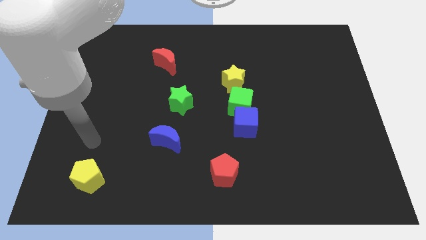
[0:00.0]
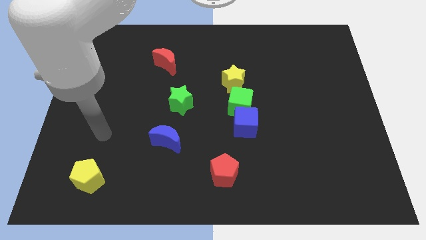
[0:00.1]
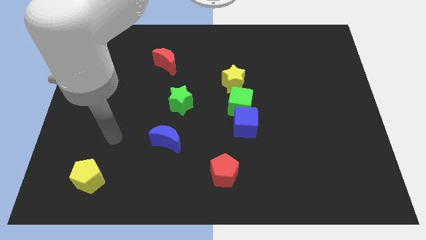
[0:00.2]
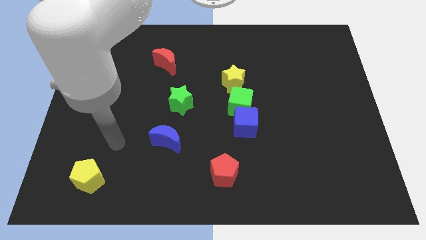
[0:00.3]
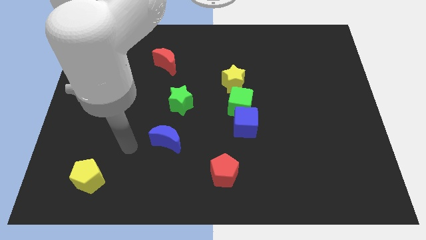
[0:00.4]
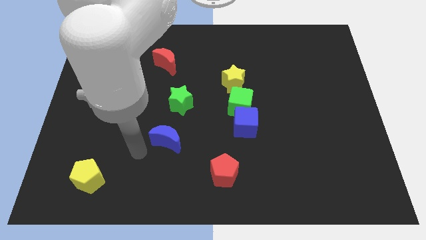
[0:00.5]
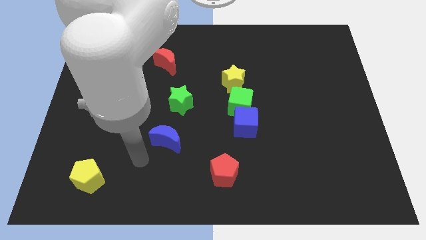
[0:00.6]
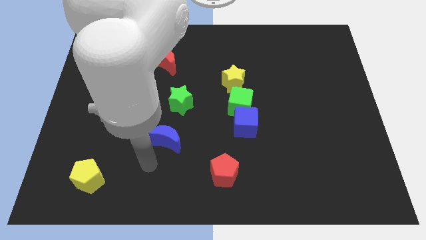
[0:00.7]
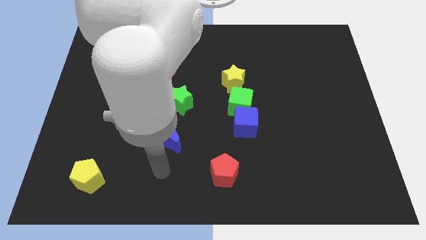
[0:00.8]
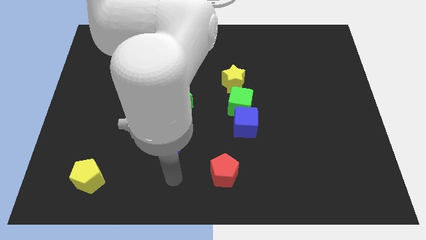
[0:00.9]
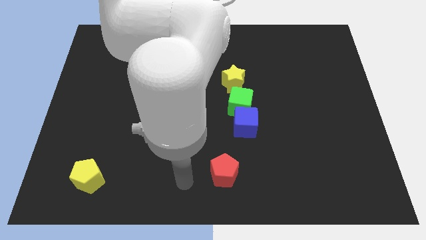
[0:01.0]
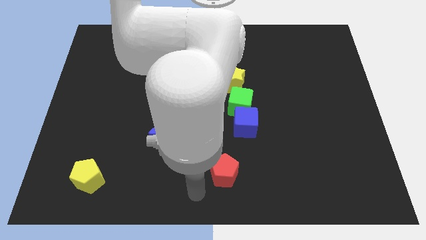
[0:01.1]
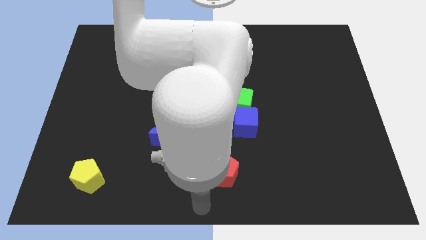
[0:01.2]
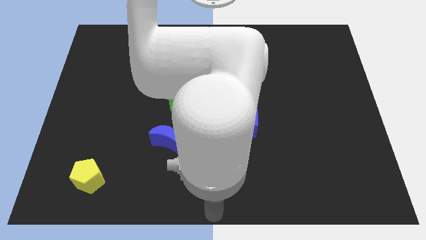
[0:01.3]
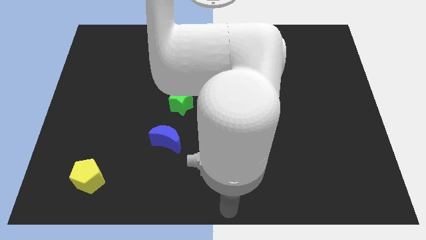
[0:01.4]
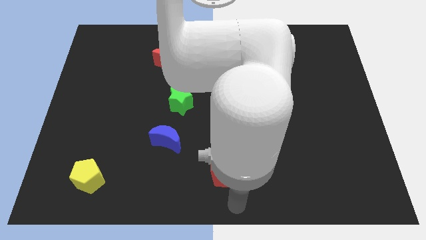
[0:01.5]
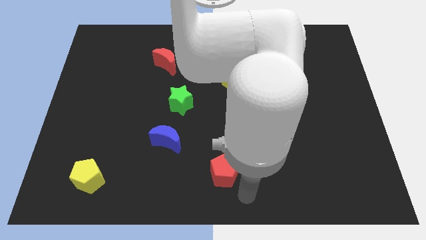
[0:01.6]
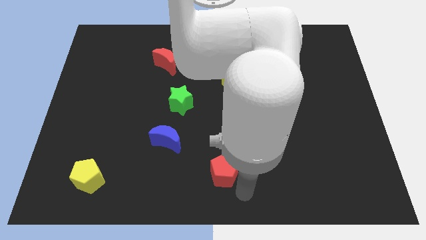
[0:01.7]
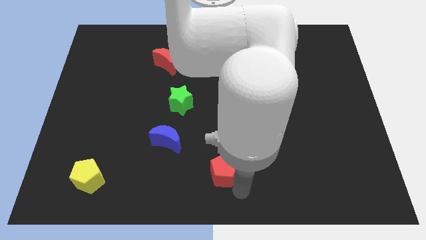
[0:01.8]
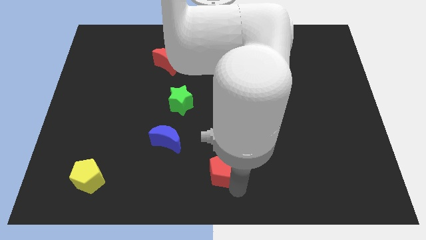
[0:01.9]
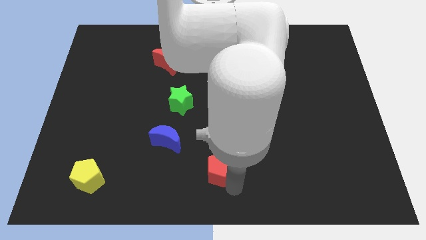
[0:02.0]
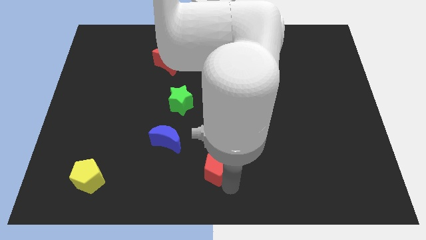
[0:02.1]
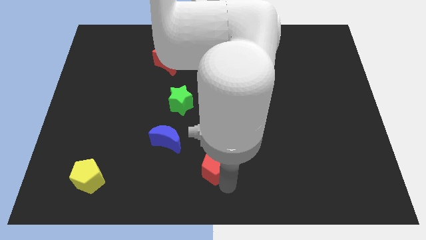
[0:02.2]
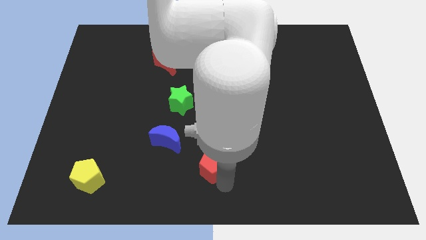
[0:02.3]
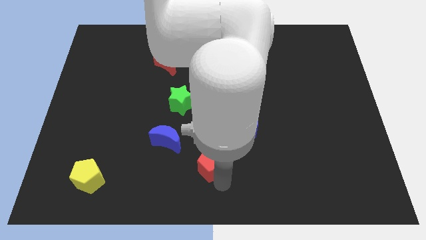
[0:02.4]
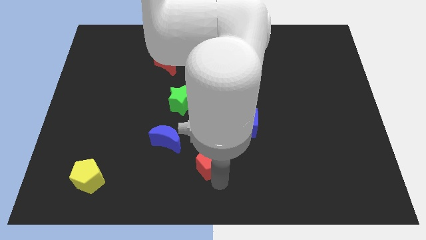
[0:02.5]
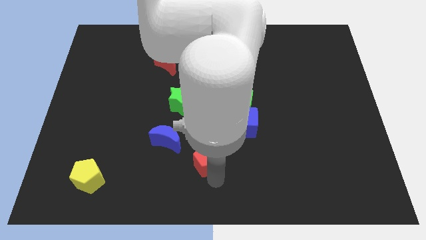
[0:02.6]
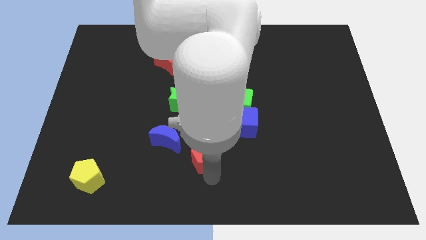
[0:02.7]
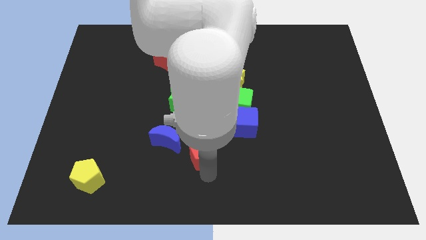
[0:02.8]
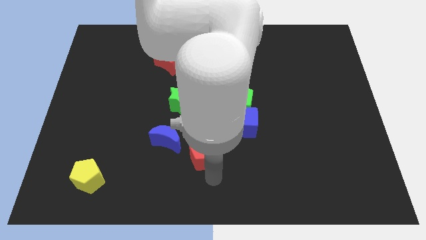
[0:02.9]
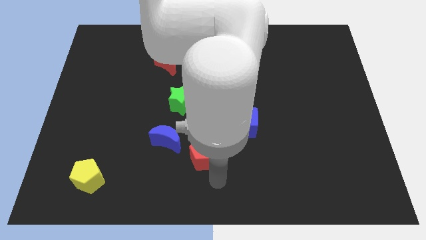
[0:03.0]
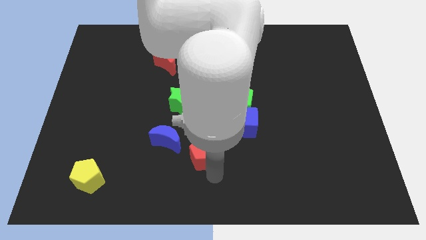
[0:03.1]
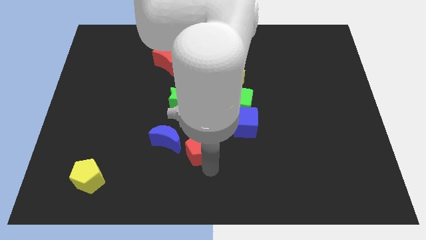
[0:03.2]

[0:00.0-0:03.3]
slightly move the red pentagon upwards and to the left diagonally

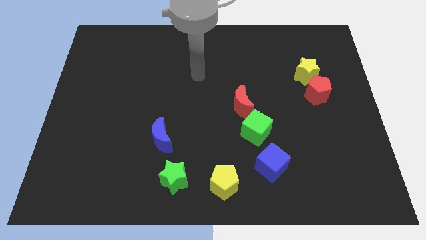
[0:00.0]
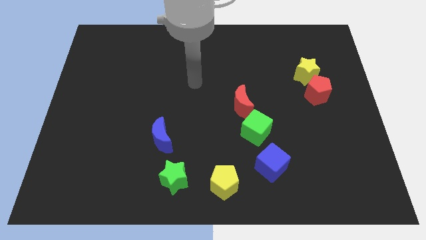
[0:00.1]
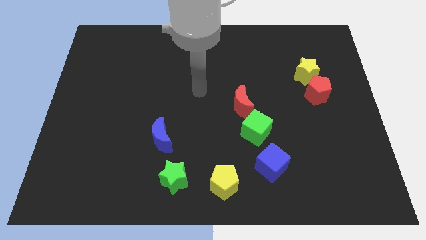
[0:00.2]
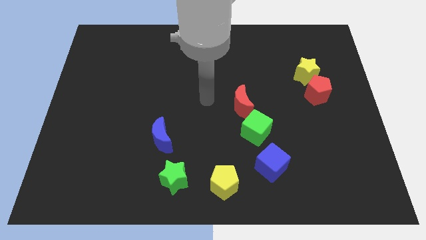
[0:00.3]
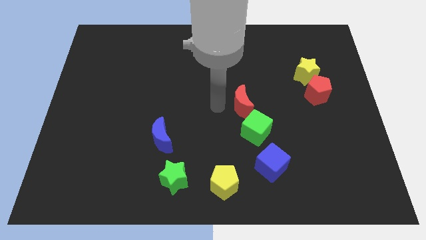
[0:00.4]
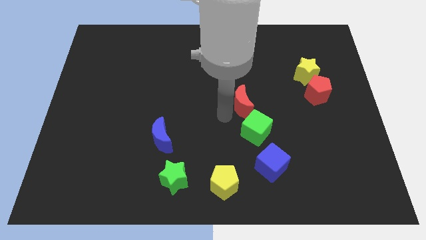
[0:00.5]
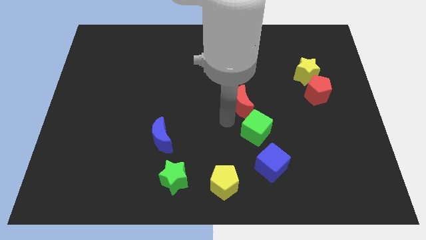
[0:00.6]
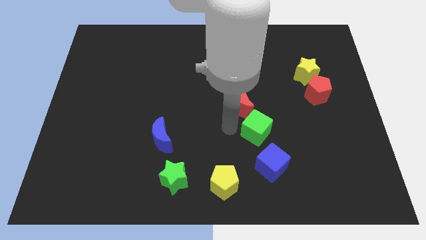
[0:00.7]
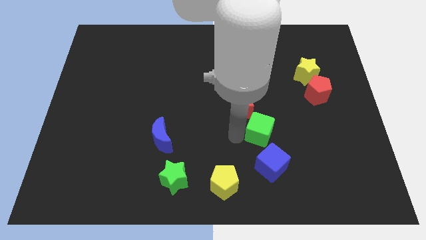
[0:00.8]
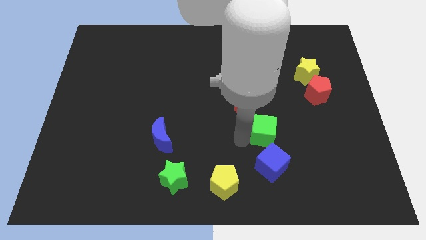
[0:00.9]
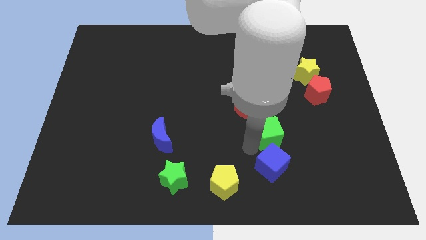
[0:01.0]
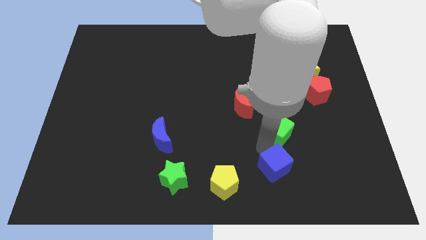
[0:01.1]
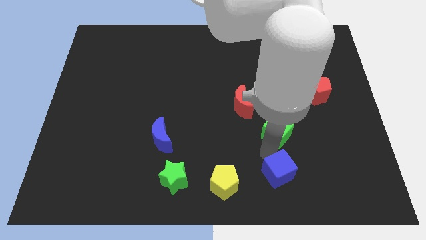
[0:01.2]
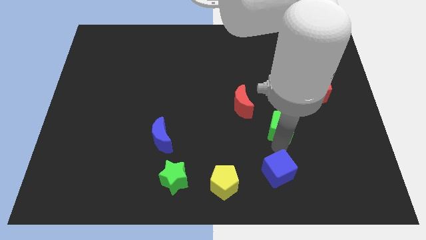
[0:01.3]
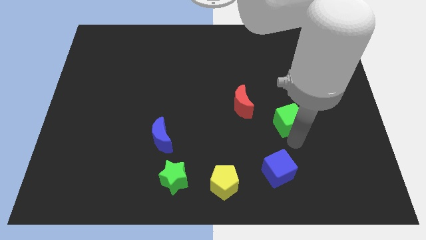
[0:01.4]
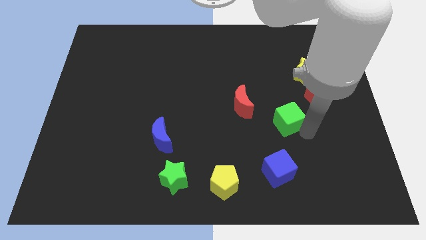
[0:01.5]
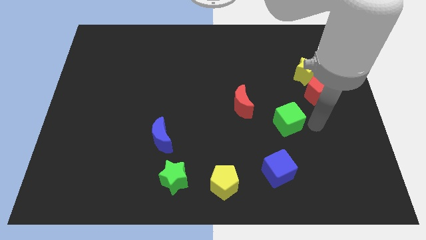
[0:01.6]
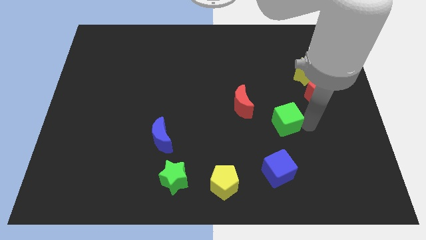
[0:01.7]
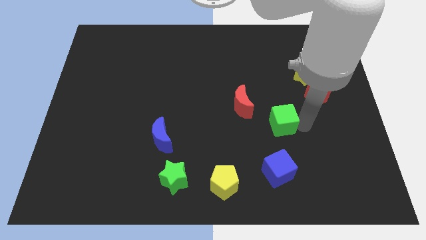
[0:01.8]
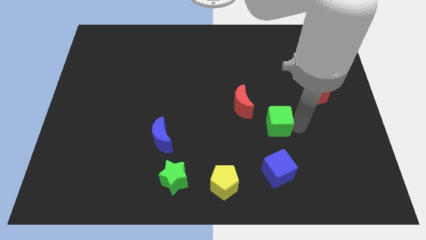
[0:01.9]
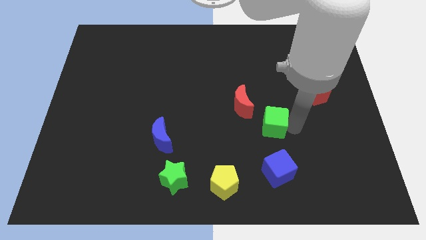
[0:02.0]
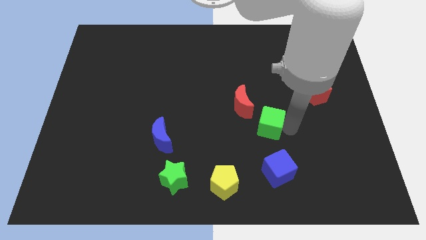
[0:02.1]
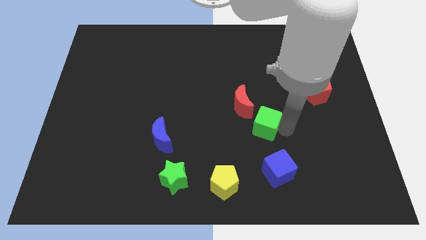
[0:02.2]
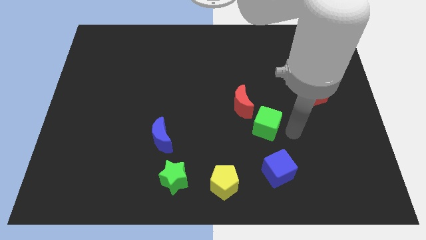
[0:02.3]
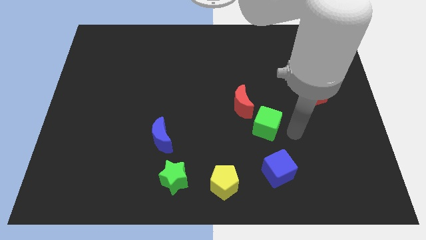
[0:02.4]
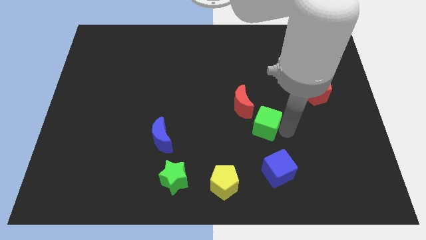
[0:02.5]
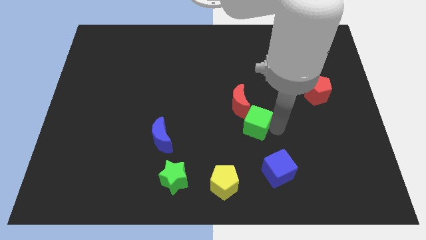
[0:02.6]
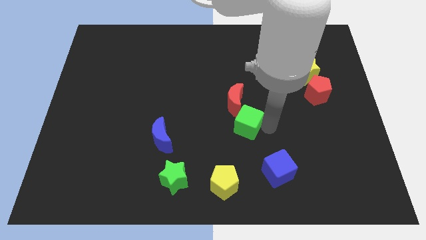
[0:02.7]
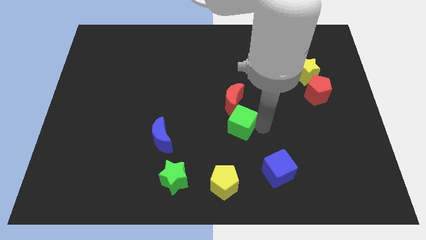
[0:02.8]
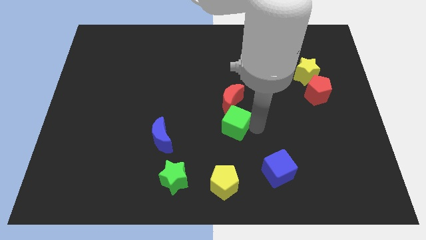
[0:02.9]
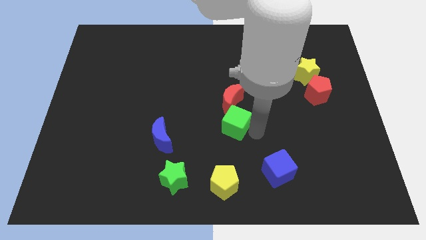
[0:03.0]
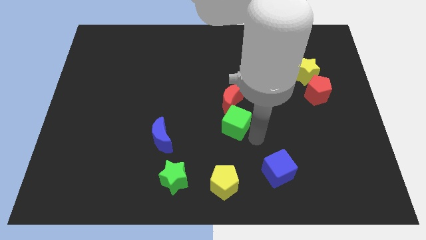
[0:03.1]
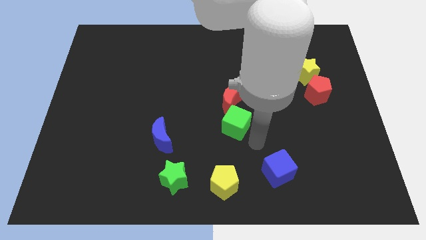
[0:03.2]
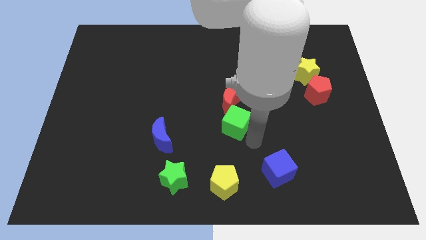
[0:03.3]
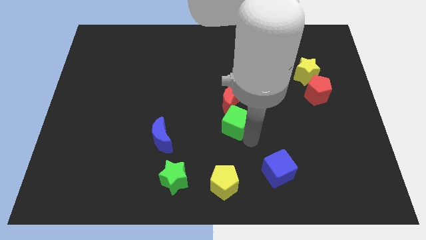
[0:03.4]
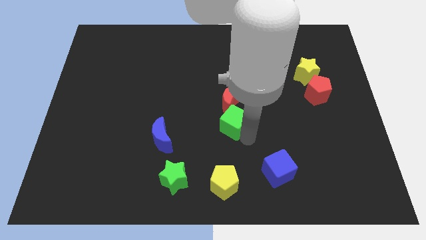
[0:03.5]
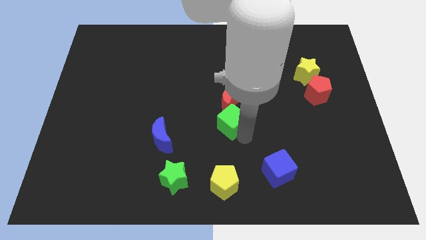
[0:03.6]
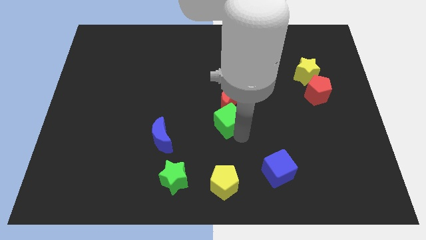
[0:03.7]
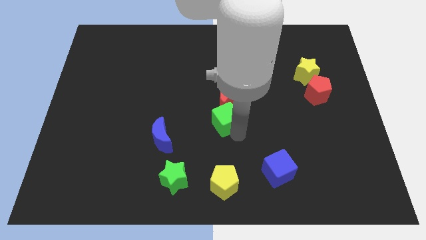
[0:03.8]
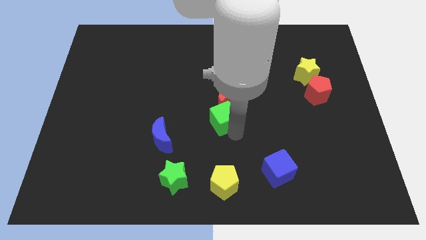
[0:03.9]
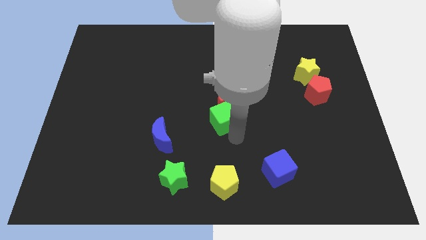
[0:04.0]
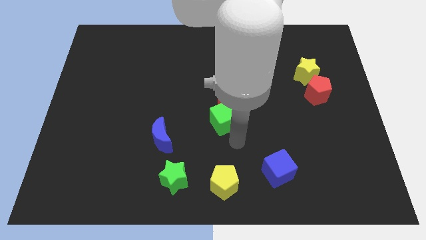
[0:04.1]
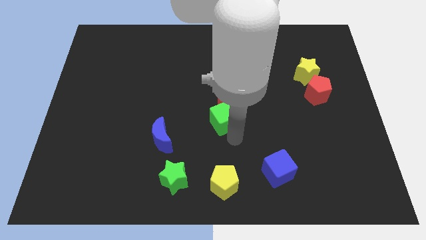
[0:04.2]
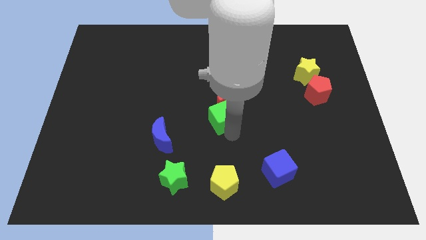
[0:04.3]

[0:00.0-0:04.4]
move the green cube upwards and to the left diagonally somewhat

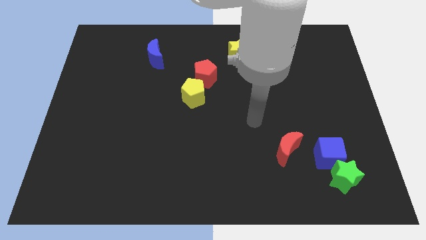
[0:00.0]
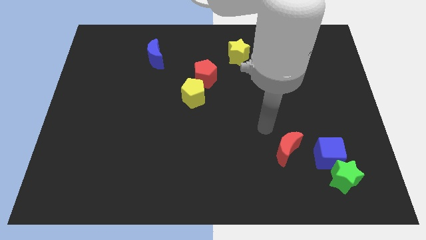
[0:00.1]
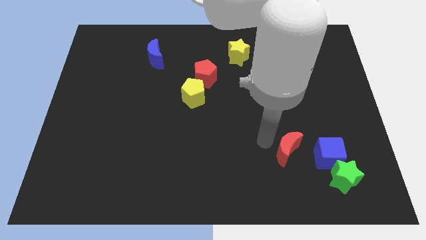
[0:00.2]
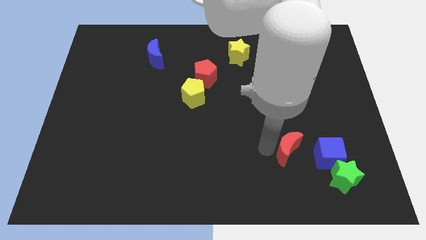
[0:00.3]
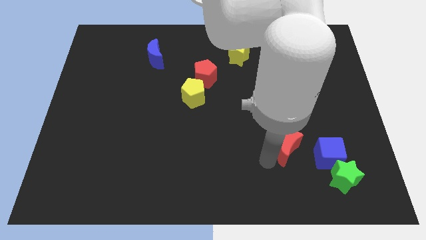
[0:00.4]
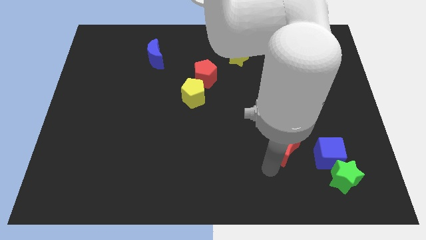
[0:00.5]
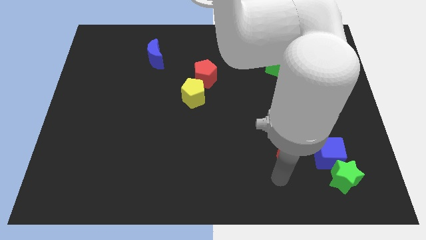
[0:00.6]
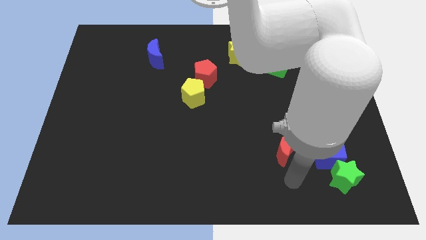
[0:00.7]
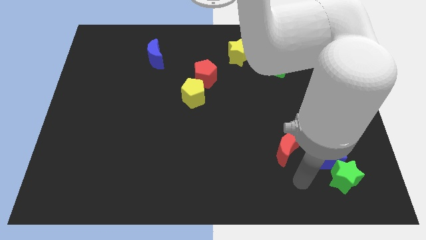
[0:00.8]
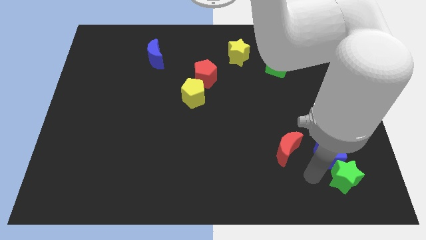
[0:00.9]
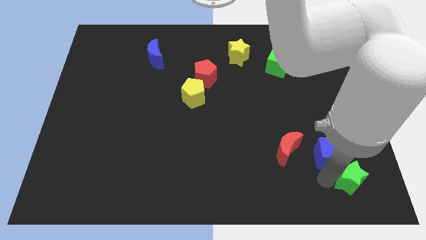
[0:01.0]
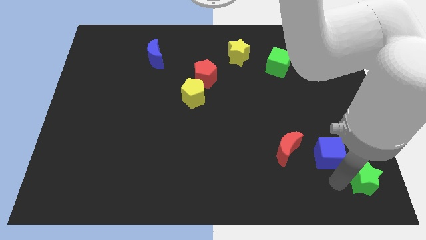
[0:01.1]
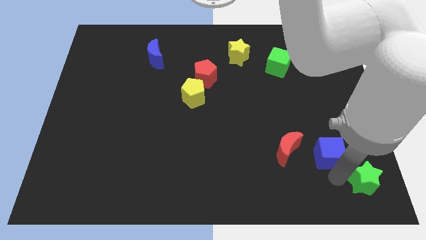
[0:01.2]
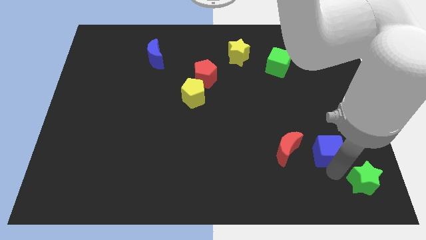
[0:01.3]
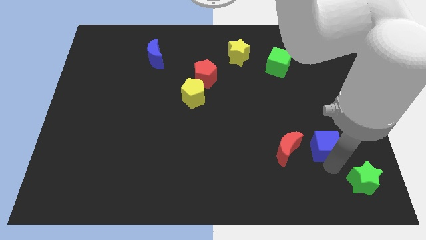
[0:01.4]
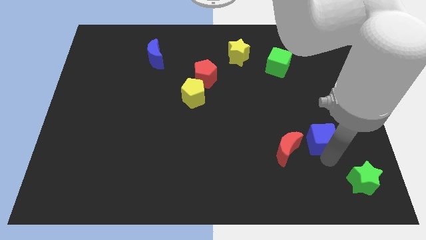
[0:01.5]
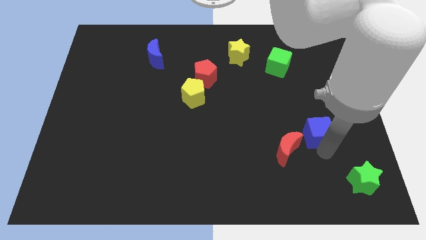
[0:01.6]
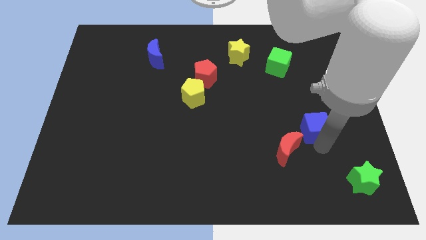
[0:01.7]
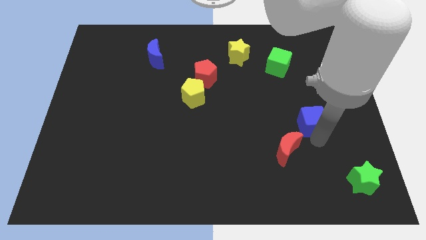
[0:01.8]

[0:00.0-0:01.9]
slightly slide the blue cube upwards
